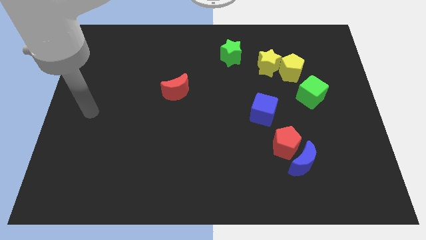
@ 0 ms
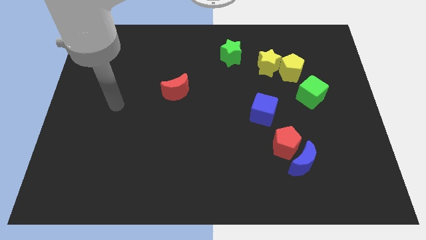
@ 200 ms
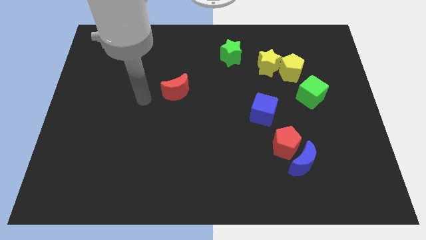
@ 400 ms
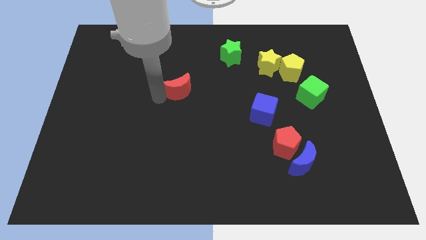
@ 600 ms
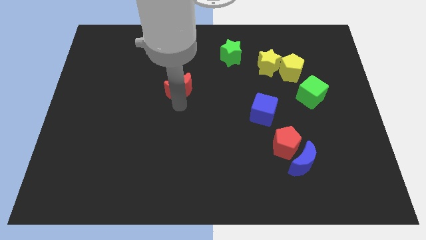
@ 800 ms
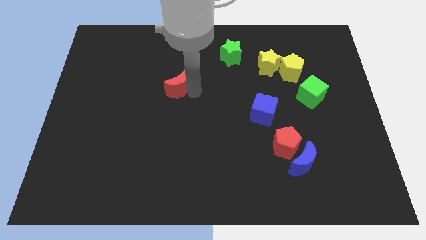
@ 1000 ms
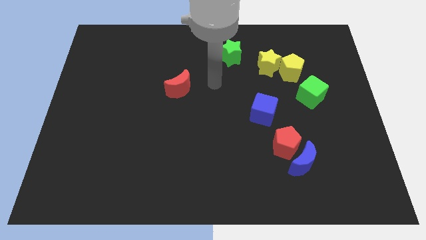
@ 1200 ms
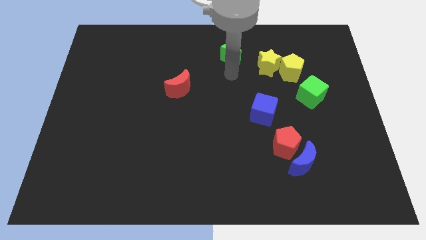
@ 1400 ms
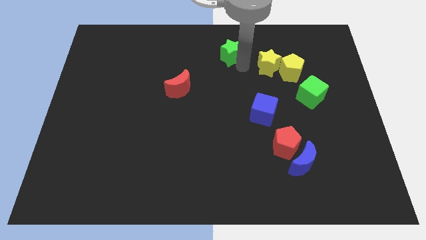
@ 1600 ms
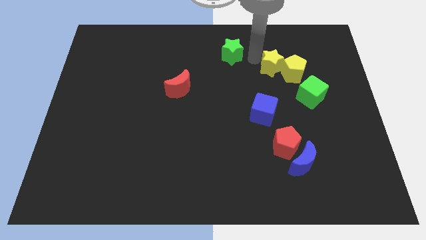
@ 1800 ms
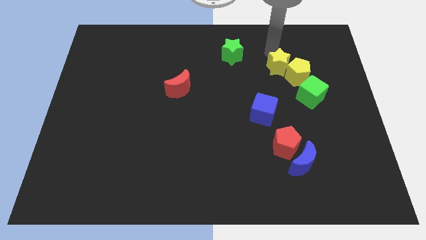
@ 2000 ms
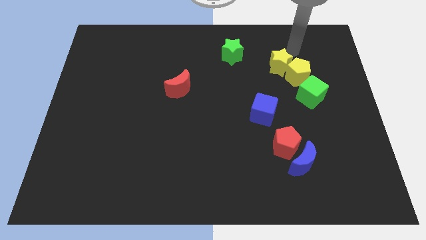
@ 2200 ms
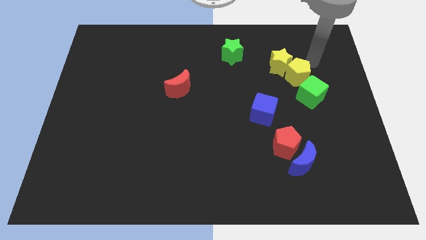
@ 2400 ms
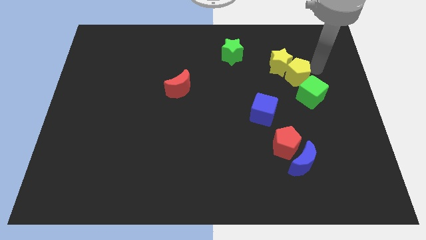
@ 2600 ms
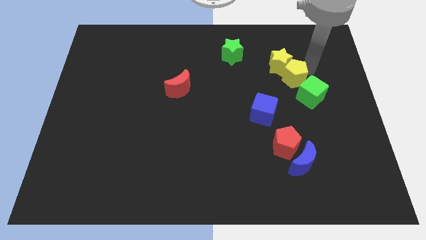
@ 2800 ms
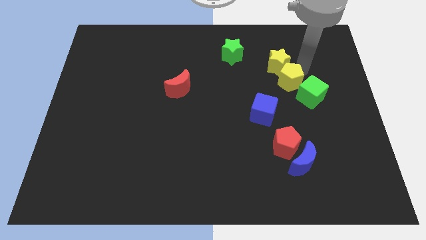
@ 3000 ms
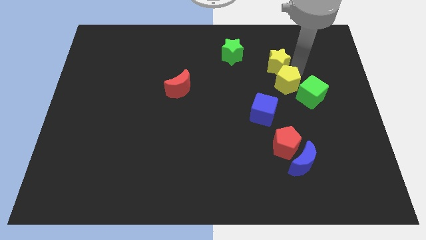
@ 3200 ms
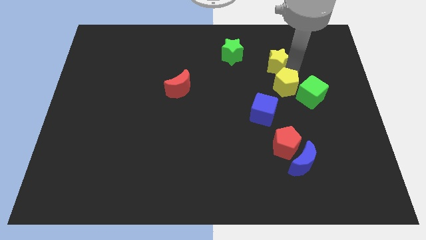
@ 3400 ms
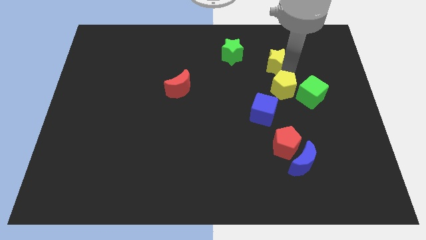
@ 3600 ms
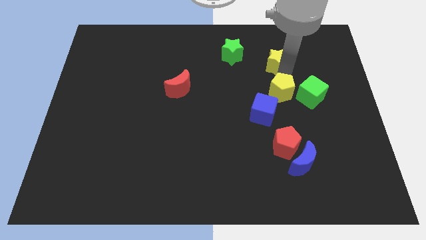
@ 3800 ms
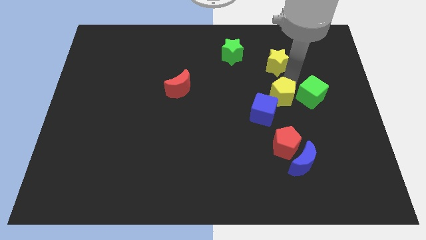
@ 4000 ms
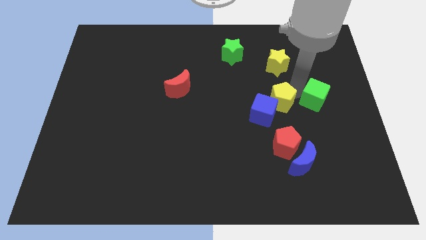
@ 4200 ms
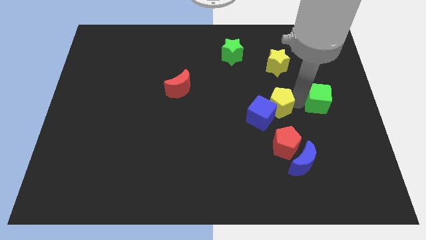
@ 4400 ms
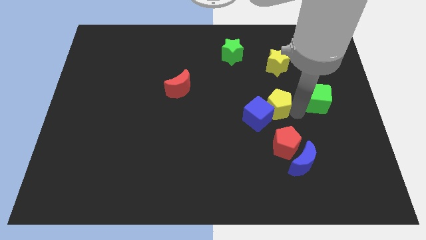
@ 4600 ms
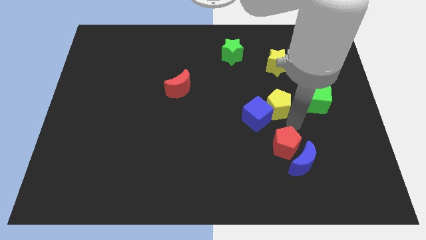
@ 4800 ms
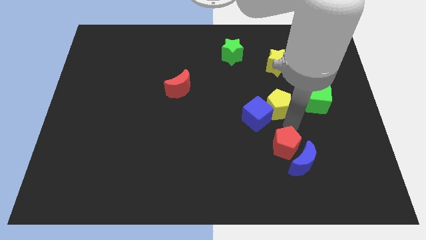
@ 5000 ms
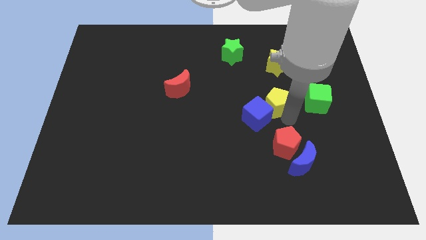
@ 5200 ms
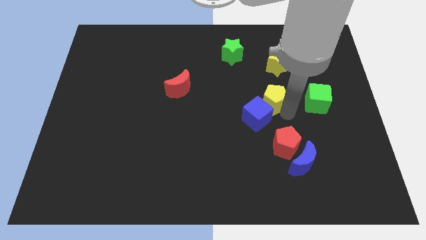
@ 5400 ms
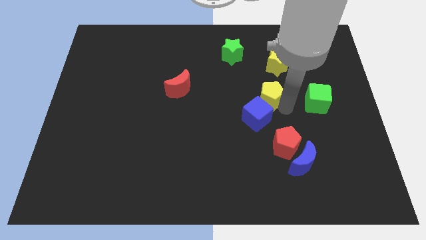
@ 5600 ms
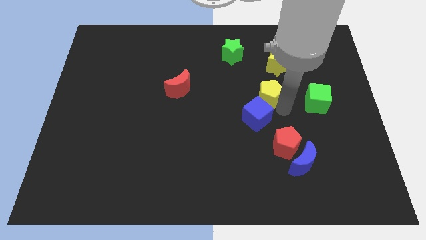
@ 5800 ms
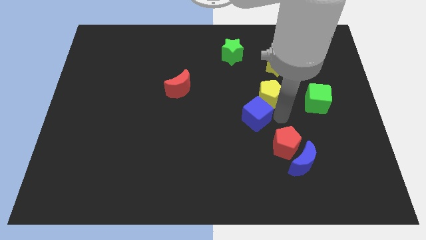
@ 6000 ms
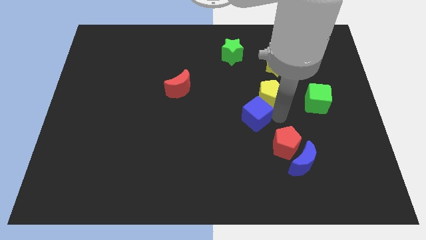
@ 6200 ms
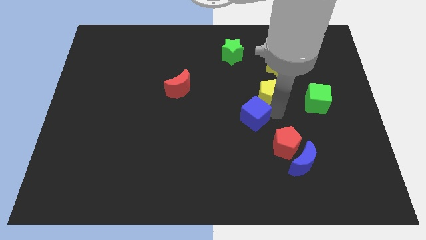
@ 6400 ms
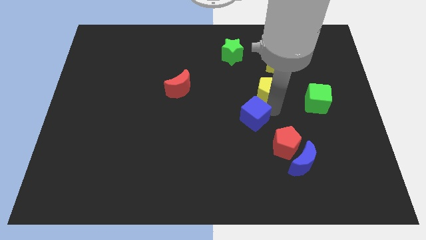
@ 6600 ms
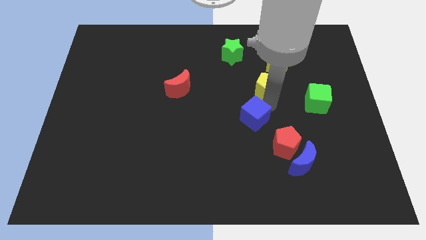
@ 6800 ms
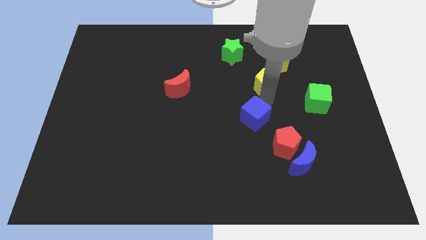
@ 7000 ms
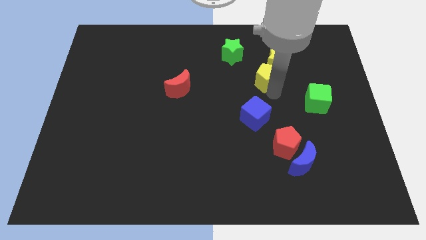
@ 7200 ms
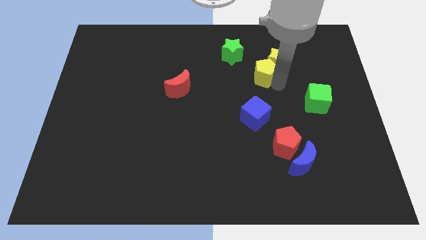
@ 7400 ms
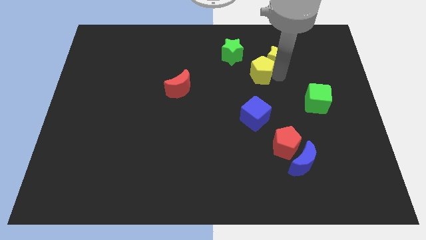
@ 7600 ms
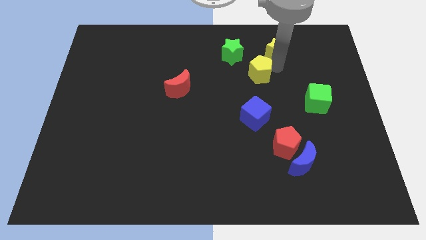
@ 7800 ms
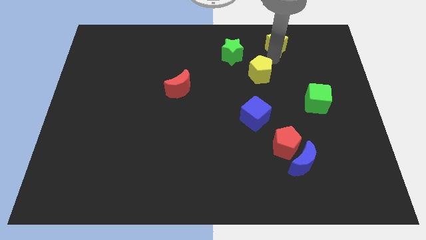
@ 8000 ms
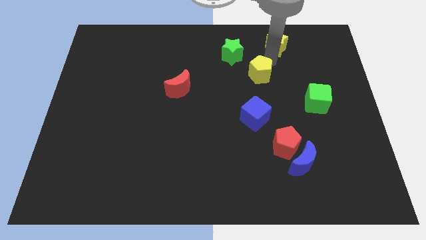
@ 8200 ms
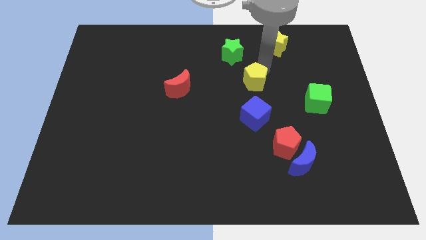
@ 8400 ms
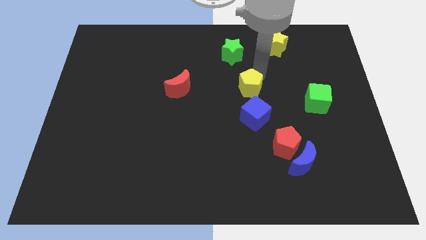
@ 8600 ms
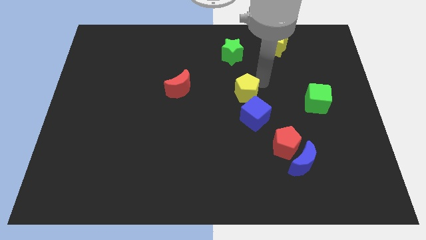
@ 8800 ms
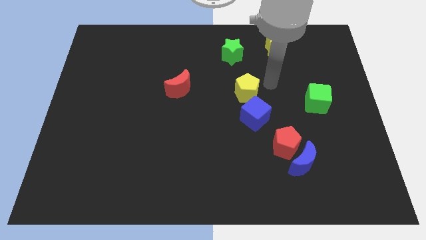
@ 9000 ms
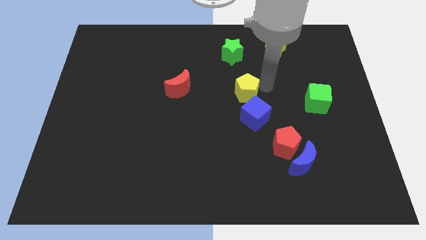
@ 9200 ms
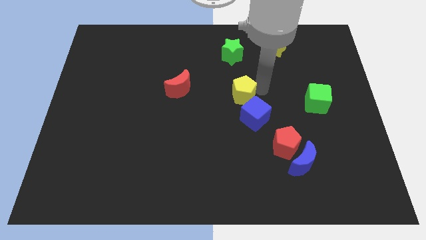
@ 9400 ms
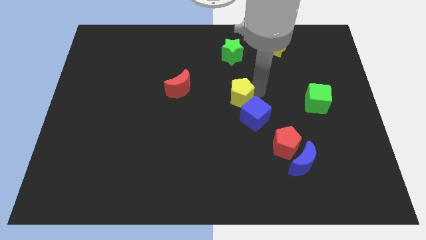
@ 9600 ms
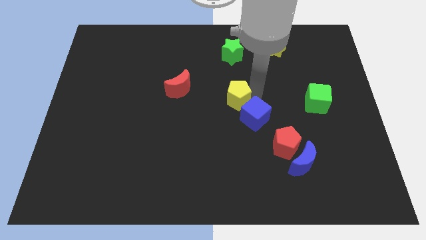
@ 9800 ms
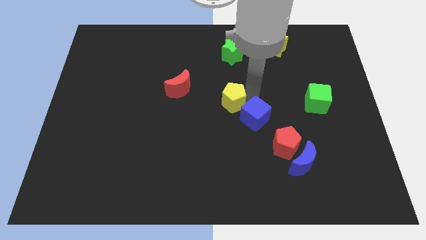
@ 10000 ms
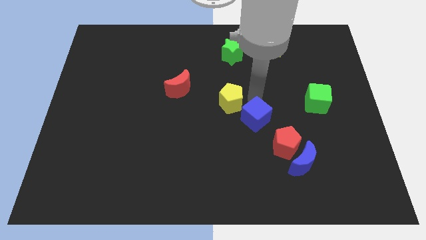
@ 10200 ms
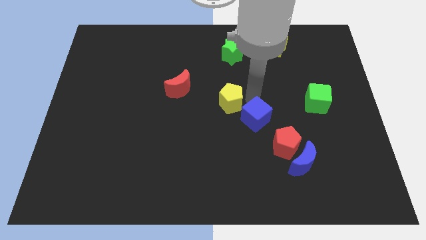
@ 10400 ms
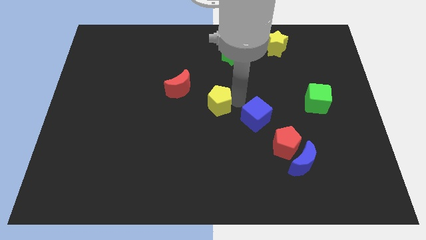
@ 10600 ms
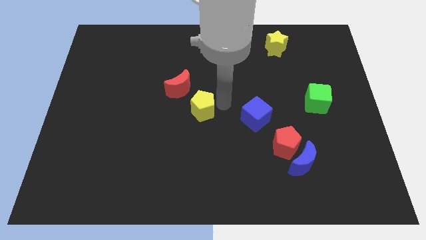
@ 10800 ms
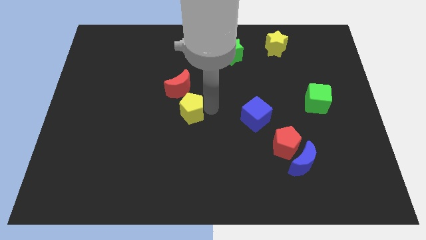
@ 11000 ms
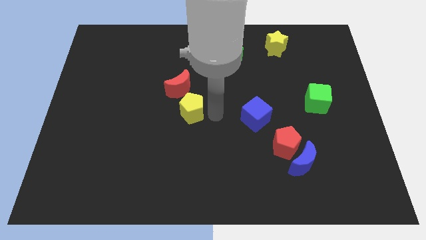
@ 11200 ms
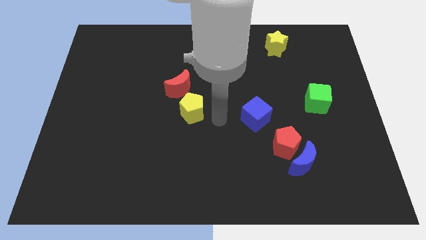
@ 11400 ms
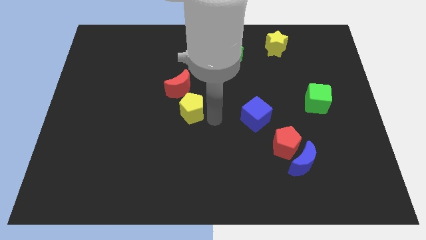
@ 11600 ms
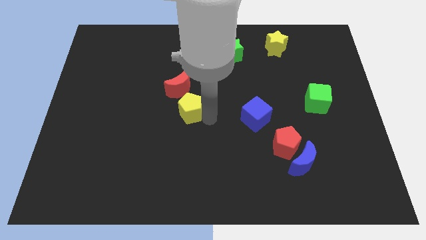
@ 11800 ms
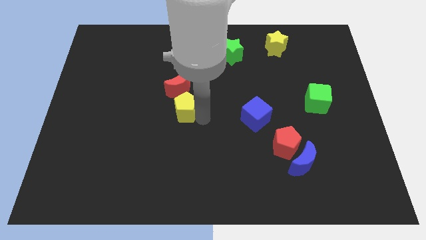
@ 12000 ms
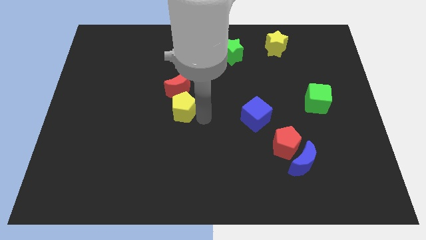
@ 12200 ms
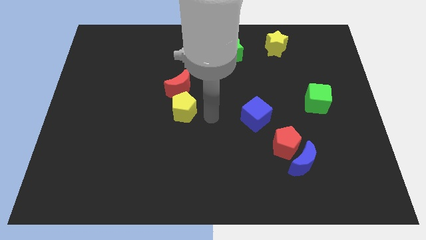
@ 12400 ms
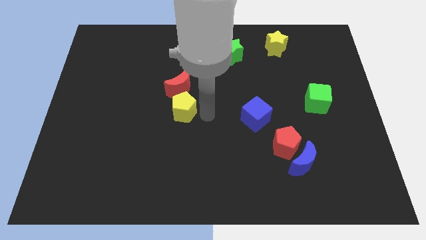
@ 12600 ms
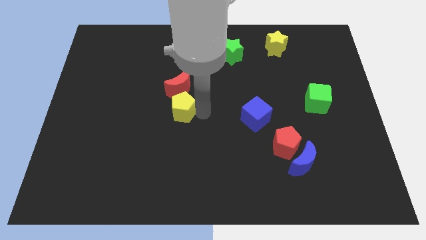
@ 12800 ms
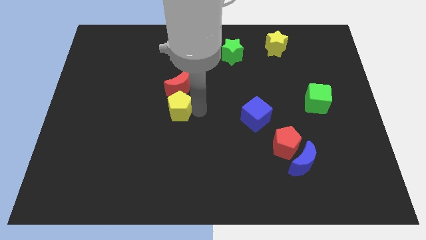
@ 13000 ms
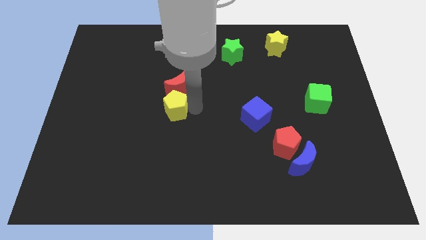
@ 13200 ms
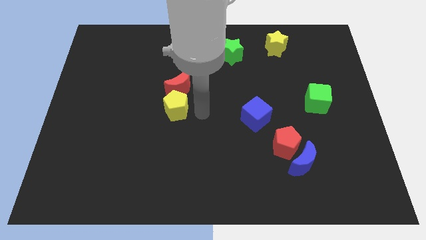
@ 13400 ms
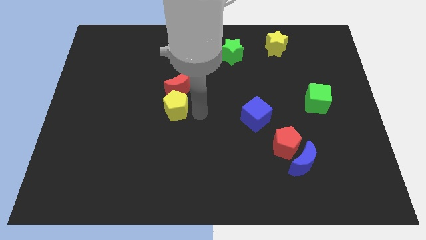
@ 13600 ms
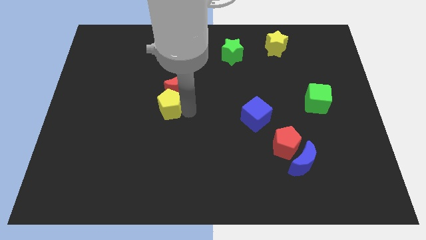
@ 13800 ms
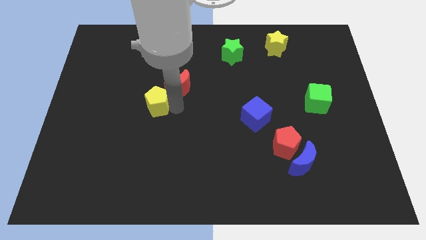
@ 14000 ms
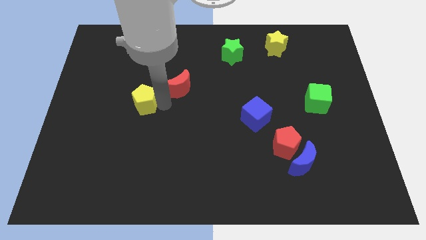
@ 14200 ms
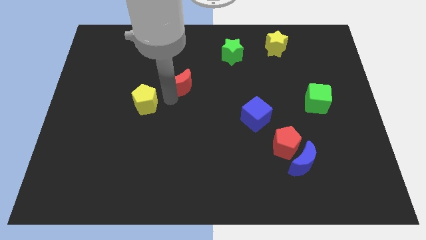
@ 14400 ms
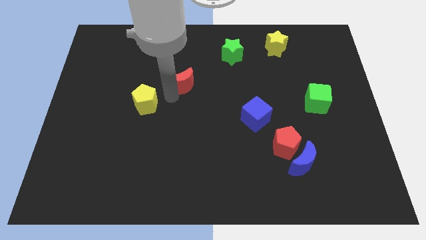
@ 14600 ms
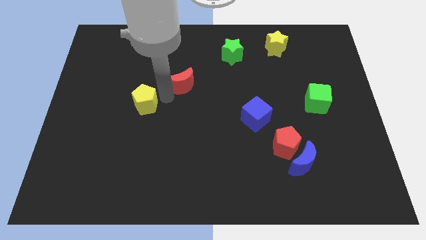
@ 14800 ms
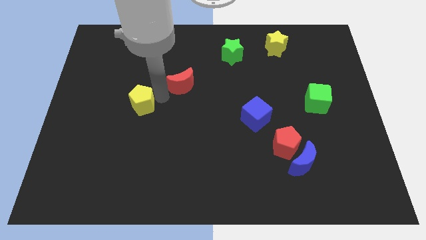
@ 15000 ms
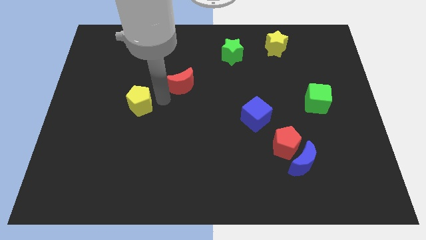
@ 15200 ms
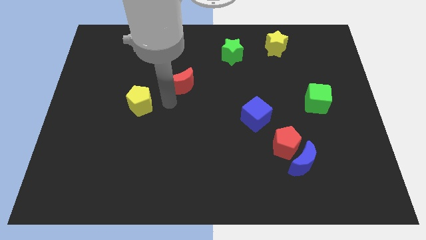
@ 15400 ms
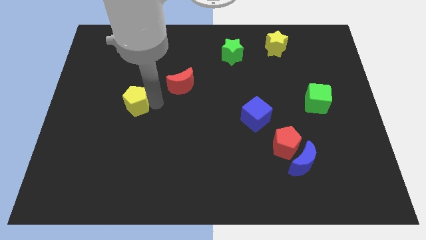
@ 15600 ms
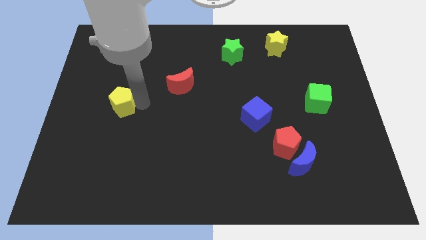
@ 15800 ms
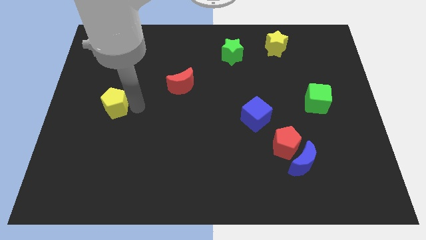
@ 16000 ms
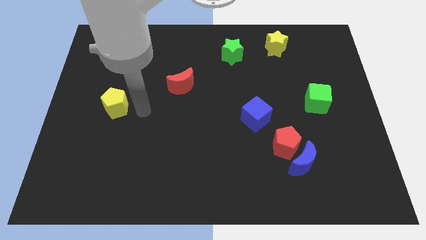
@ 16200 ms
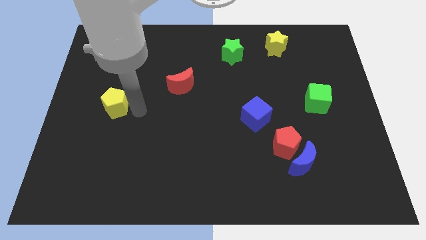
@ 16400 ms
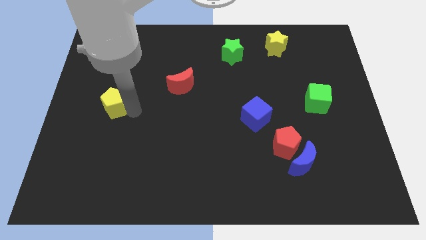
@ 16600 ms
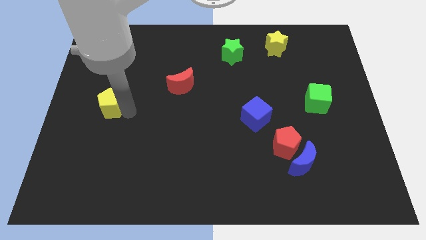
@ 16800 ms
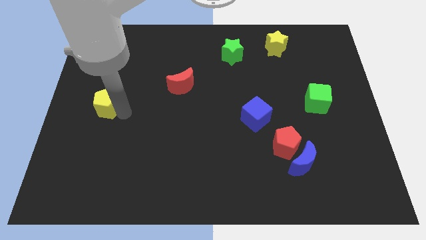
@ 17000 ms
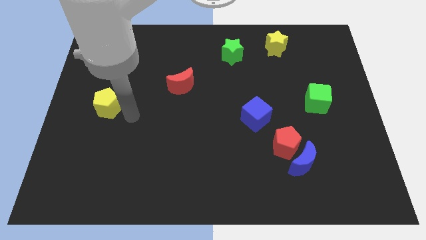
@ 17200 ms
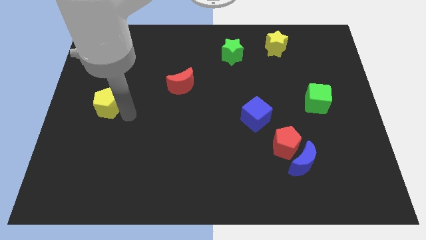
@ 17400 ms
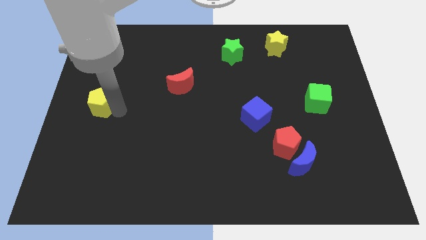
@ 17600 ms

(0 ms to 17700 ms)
push the yellow pentagon to the center left
